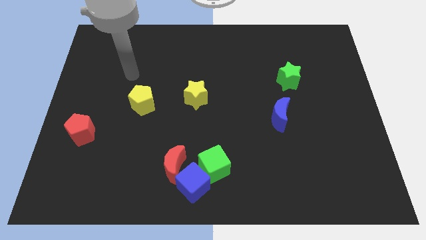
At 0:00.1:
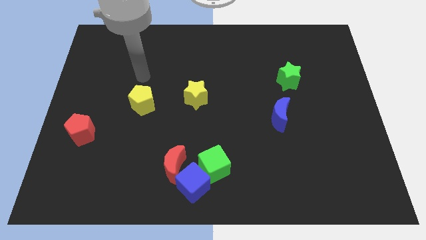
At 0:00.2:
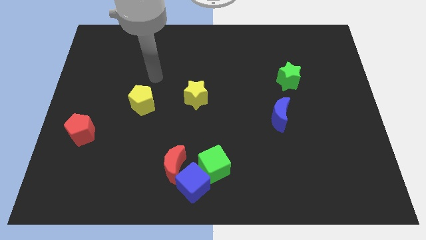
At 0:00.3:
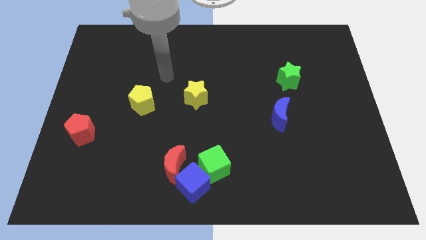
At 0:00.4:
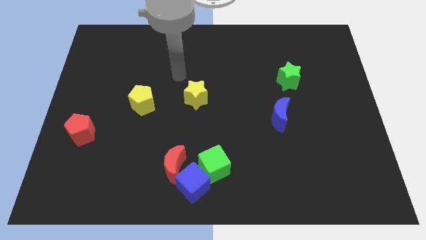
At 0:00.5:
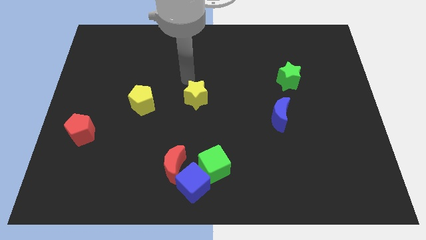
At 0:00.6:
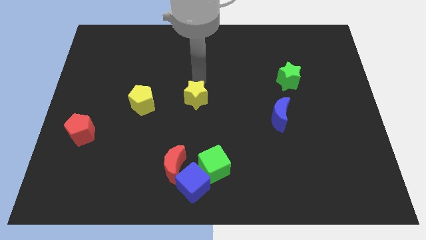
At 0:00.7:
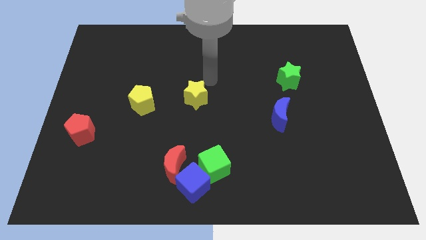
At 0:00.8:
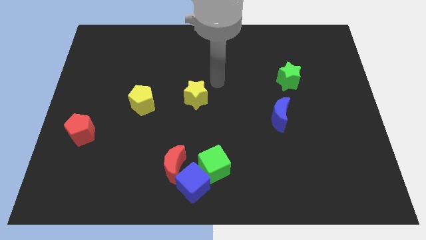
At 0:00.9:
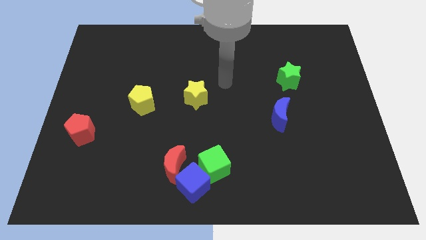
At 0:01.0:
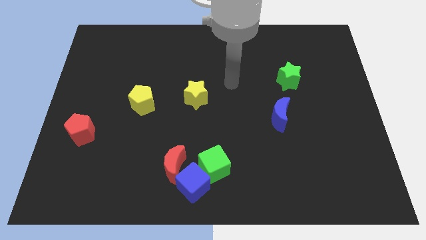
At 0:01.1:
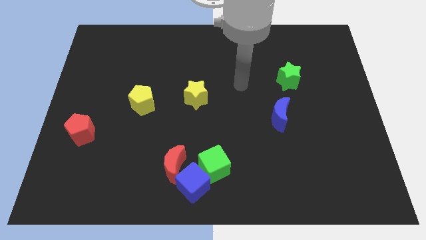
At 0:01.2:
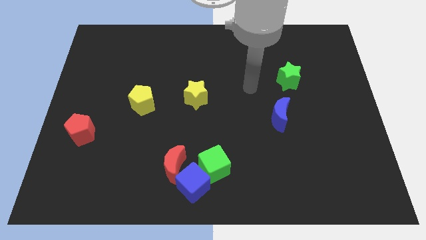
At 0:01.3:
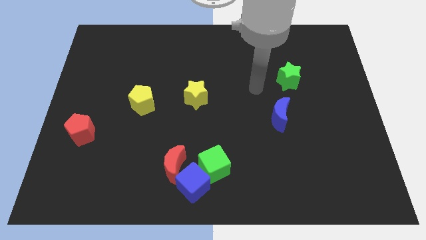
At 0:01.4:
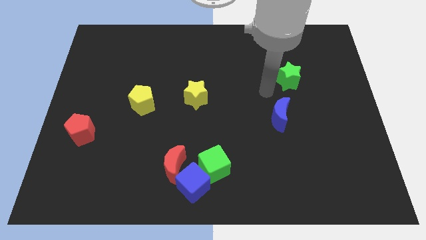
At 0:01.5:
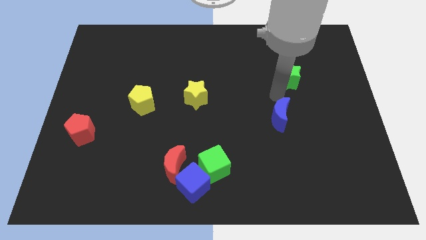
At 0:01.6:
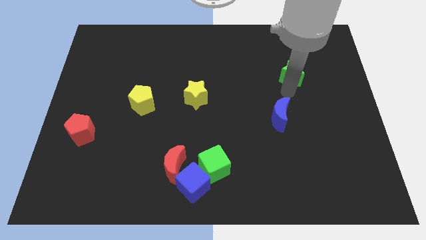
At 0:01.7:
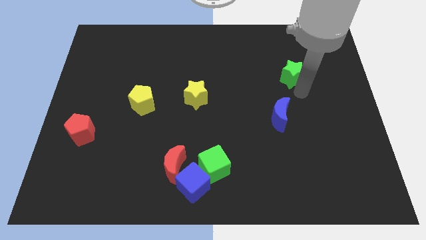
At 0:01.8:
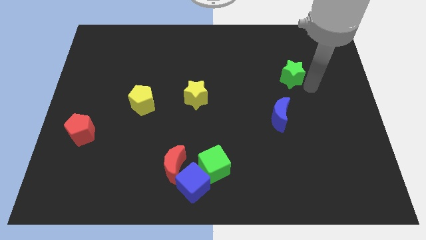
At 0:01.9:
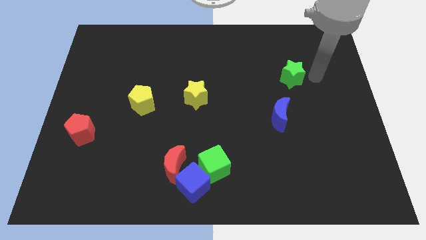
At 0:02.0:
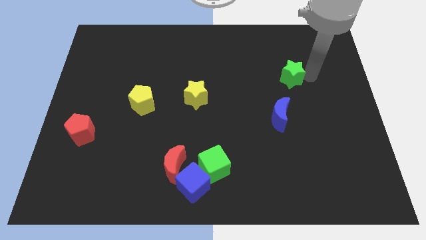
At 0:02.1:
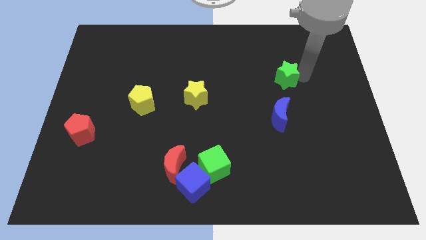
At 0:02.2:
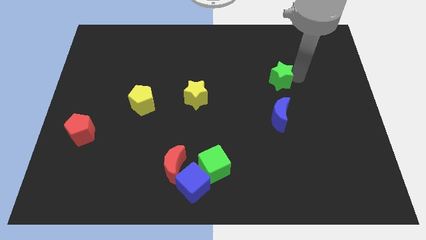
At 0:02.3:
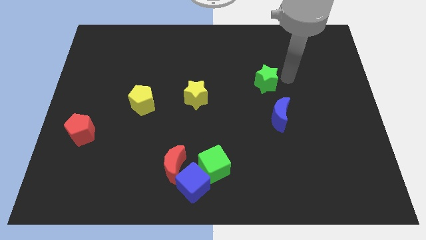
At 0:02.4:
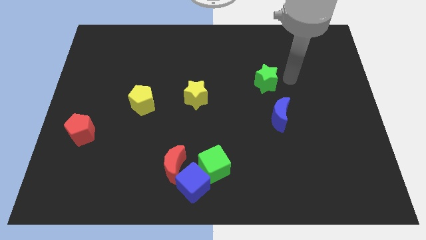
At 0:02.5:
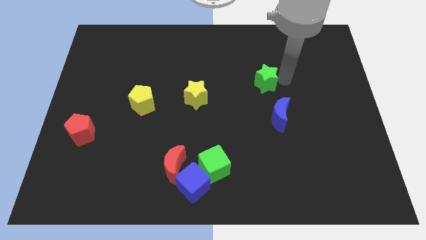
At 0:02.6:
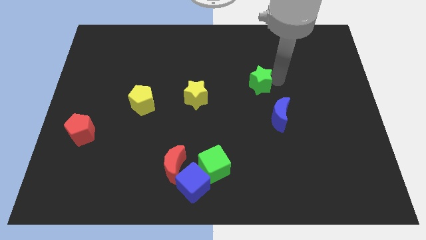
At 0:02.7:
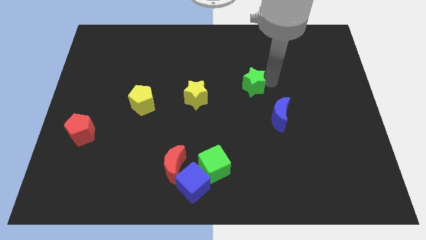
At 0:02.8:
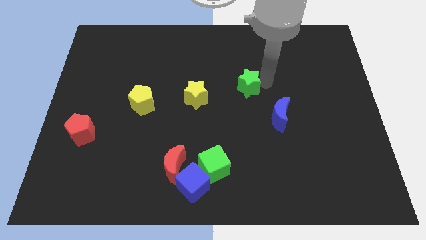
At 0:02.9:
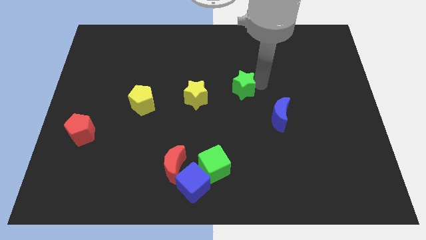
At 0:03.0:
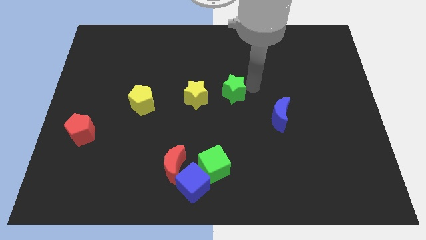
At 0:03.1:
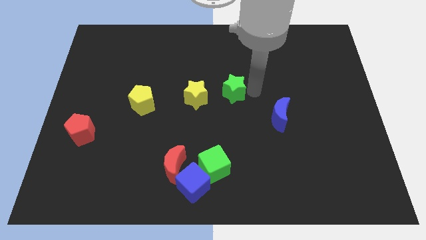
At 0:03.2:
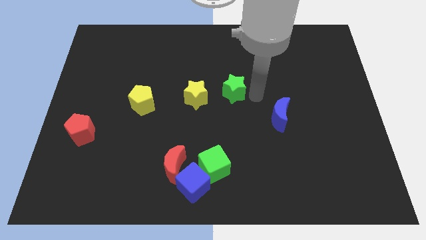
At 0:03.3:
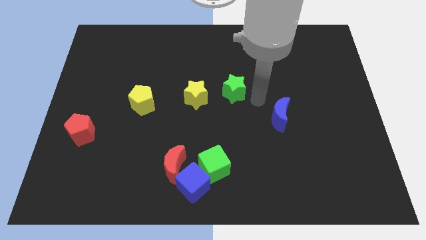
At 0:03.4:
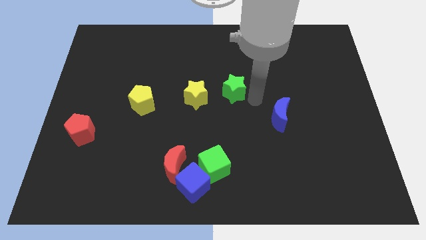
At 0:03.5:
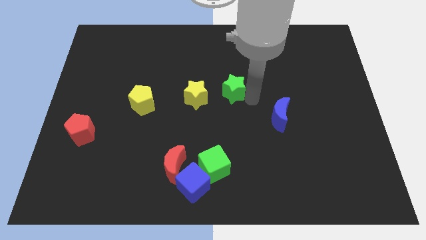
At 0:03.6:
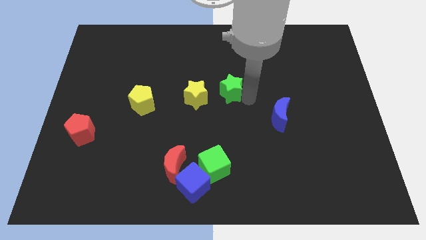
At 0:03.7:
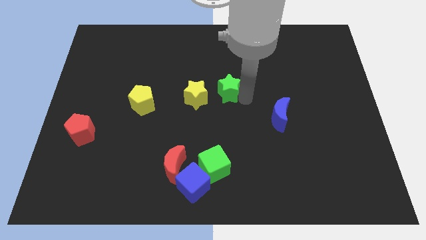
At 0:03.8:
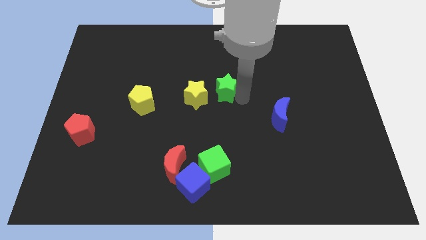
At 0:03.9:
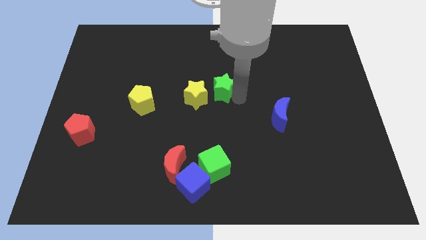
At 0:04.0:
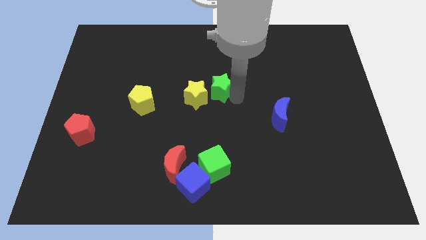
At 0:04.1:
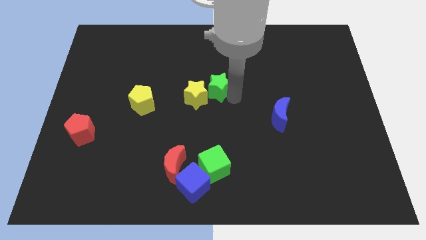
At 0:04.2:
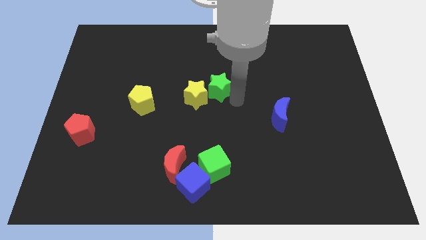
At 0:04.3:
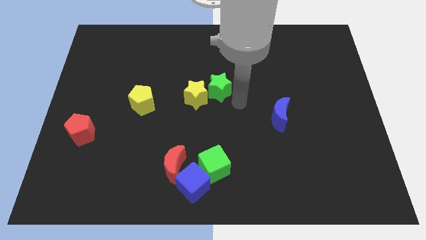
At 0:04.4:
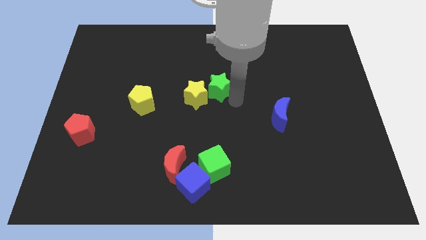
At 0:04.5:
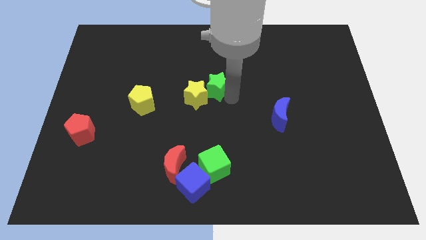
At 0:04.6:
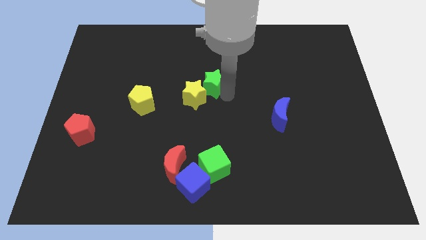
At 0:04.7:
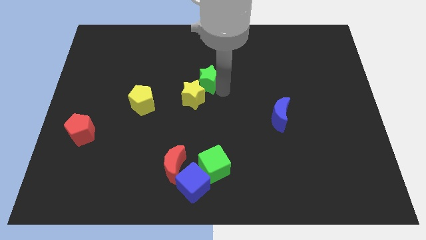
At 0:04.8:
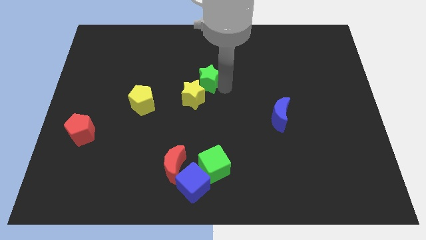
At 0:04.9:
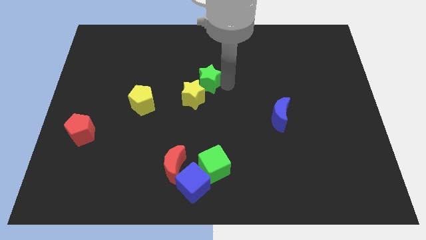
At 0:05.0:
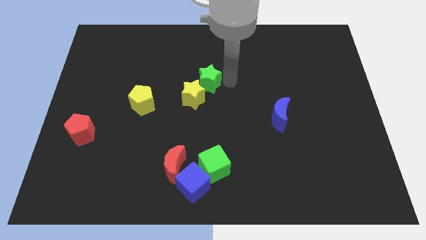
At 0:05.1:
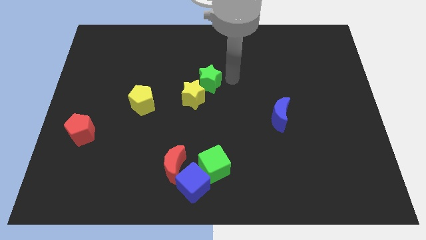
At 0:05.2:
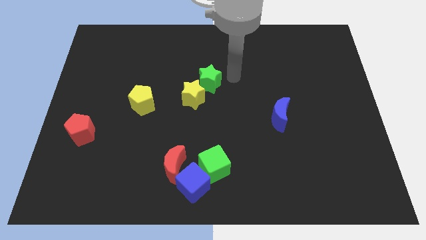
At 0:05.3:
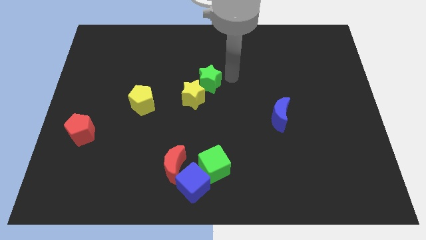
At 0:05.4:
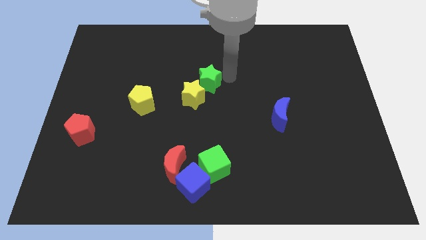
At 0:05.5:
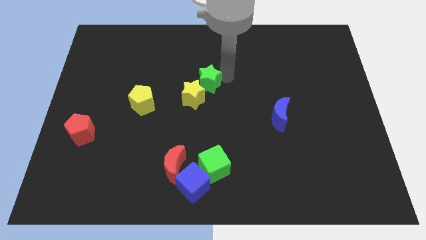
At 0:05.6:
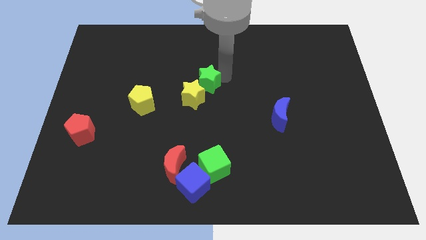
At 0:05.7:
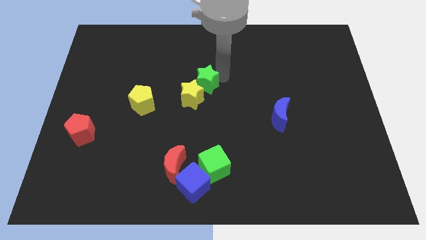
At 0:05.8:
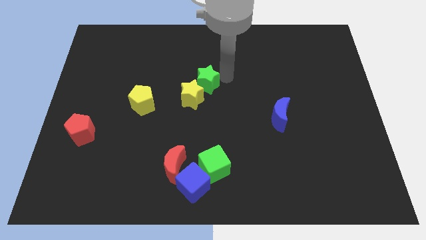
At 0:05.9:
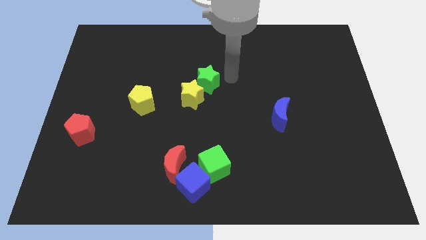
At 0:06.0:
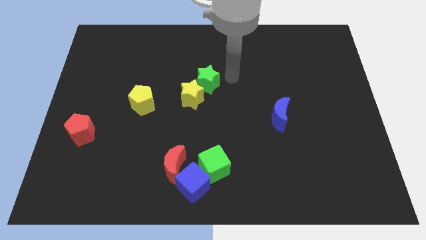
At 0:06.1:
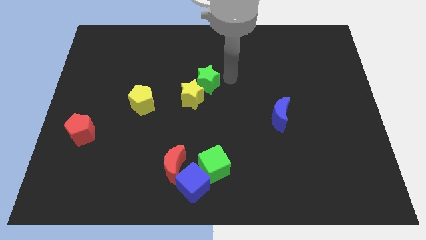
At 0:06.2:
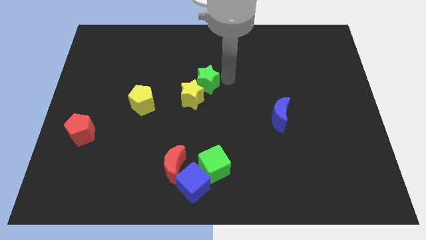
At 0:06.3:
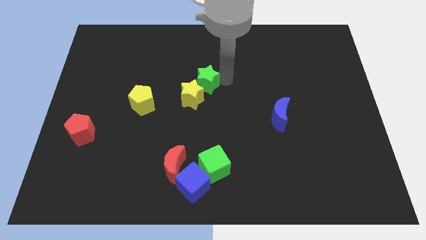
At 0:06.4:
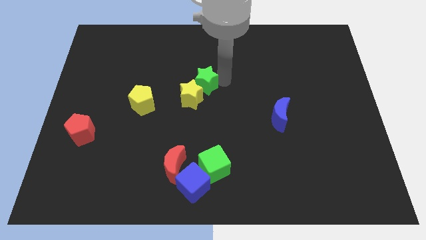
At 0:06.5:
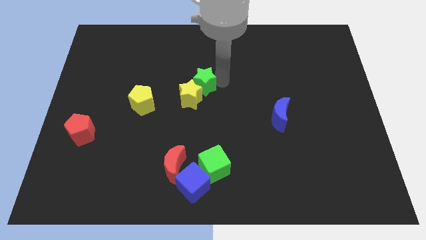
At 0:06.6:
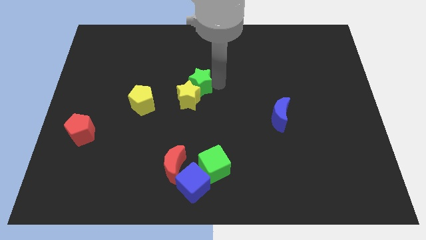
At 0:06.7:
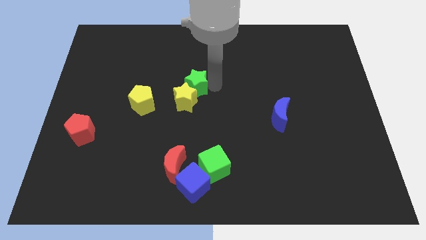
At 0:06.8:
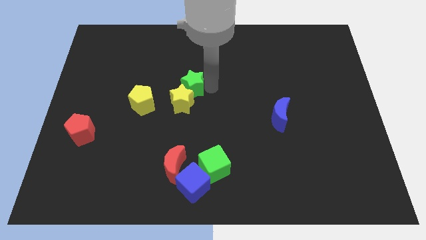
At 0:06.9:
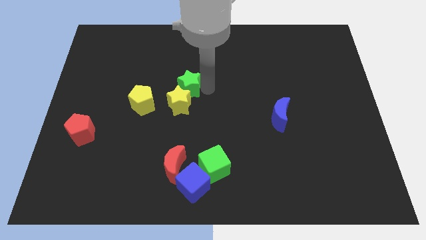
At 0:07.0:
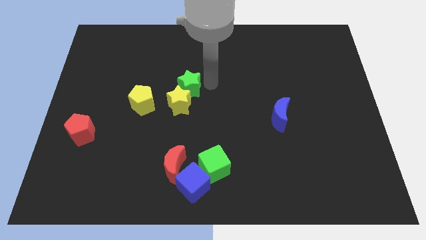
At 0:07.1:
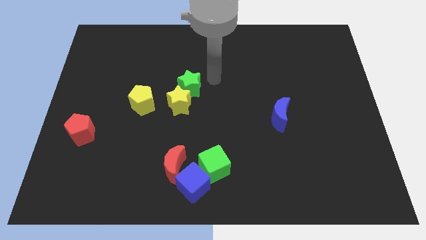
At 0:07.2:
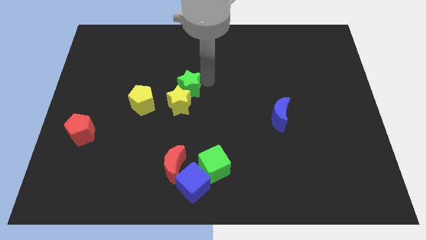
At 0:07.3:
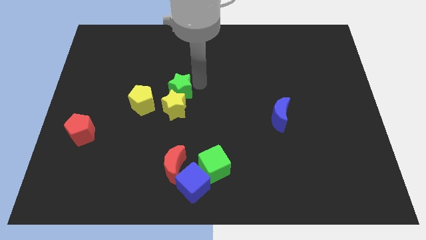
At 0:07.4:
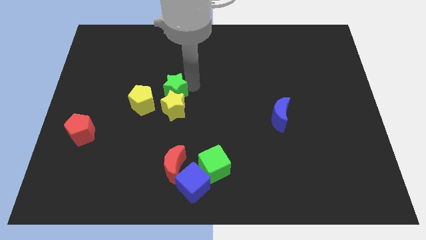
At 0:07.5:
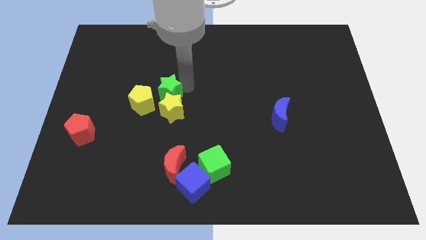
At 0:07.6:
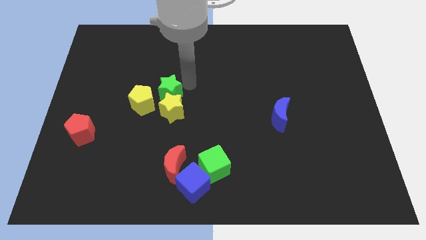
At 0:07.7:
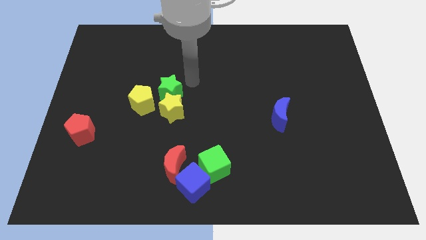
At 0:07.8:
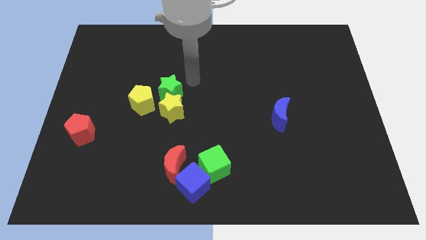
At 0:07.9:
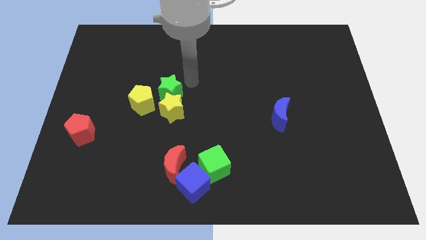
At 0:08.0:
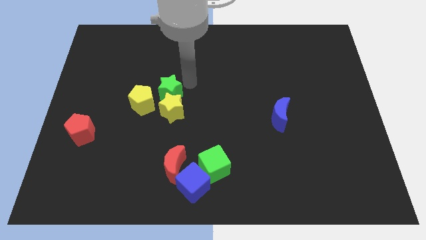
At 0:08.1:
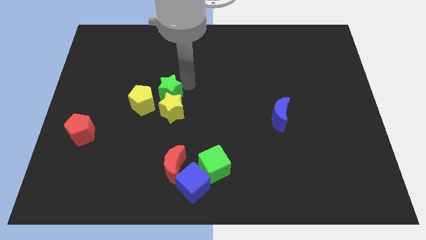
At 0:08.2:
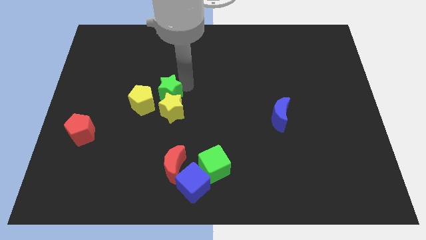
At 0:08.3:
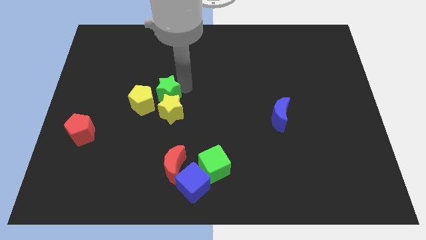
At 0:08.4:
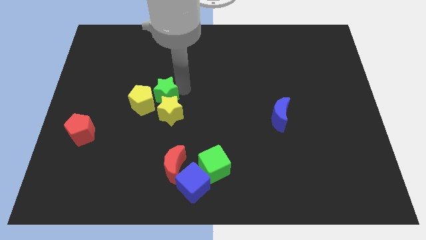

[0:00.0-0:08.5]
move the green star to the yellow pentagon
